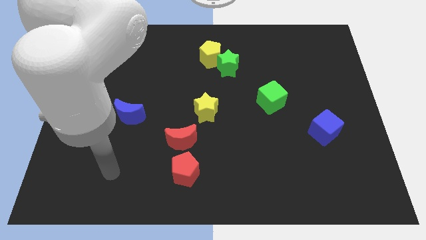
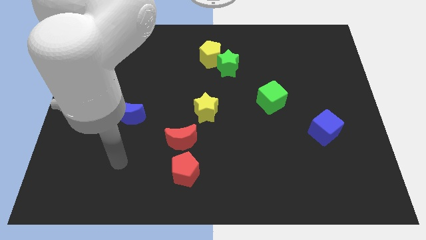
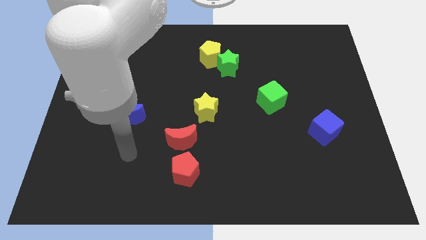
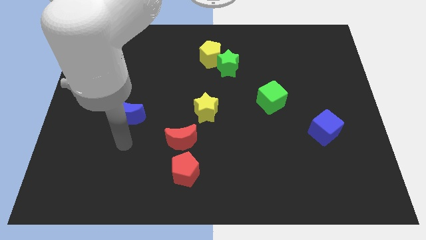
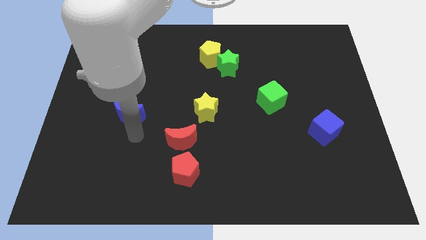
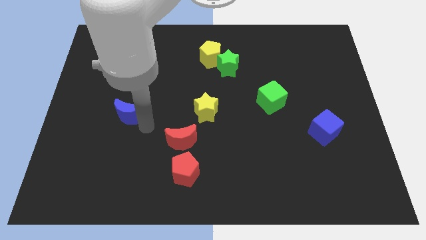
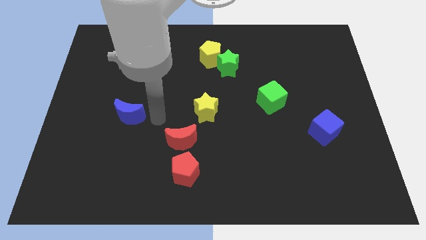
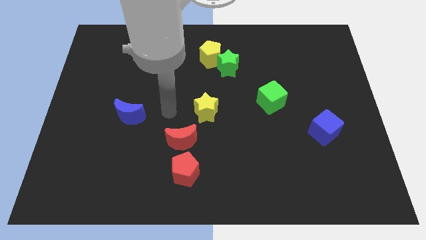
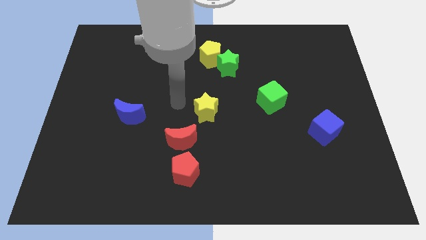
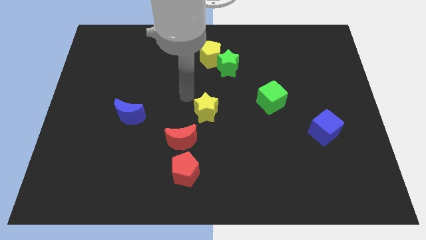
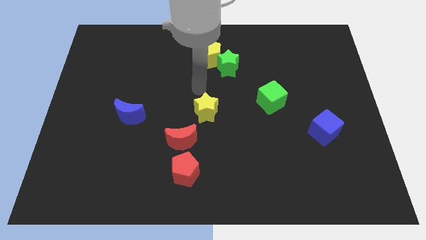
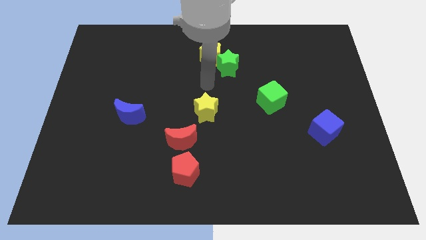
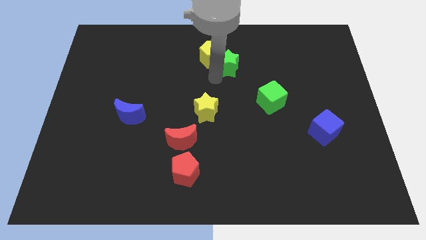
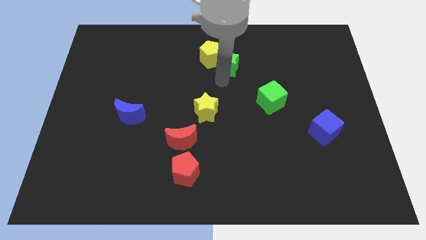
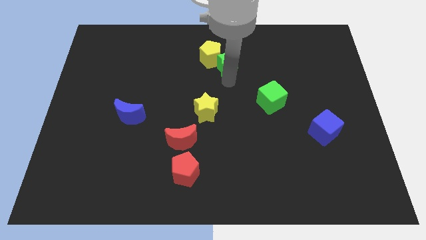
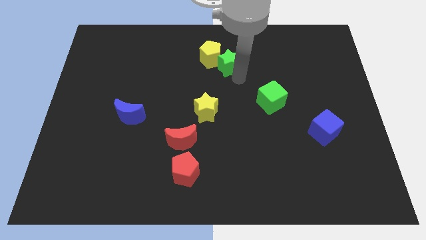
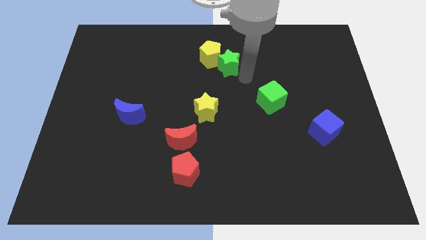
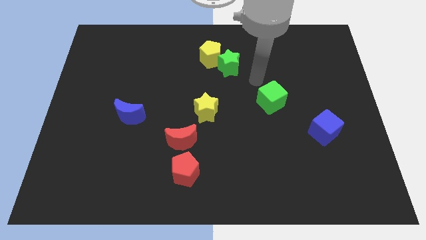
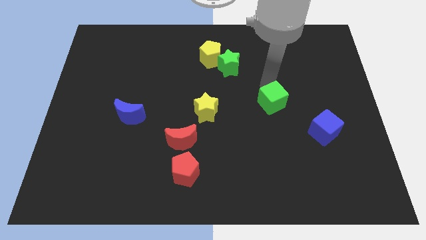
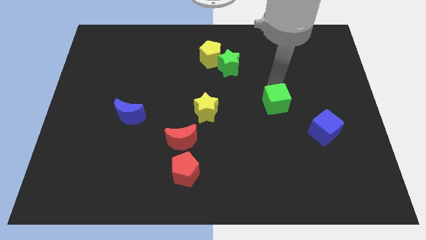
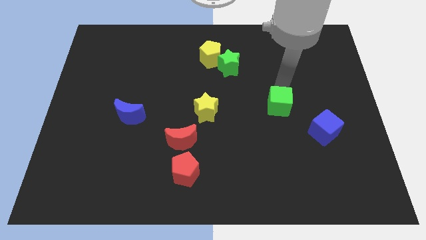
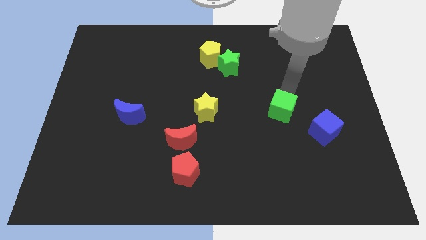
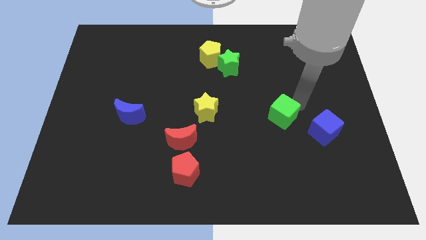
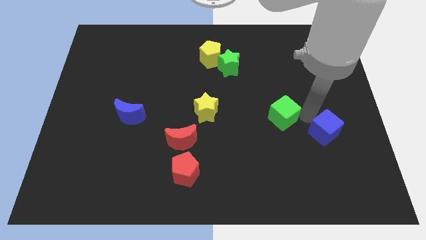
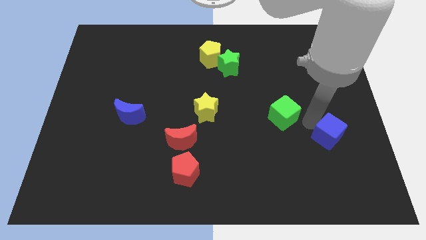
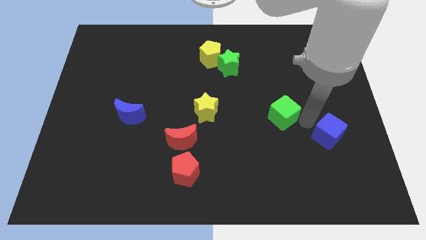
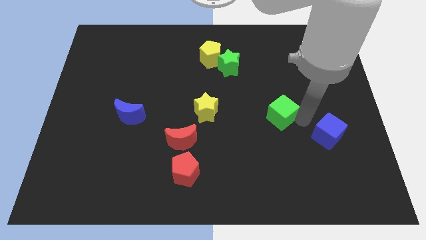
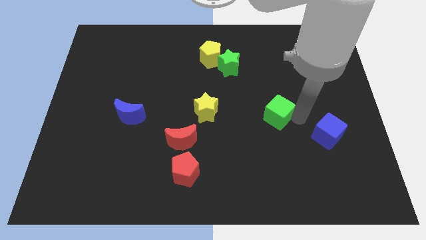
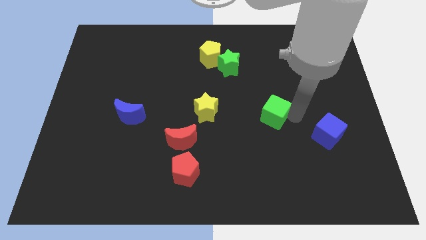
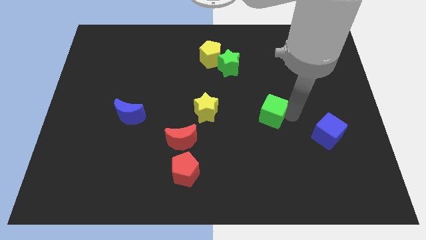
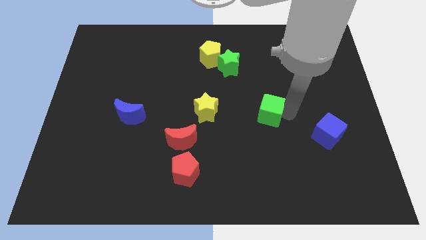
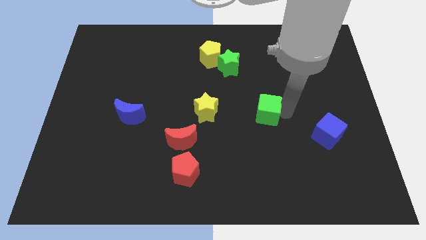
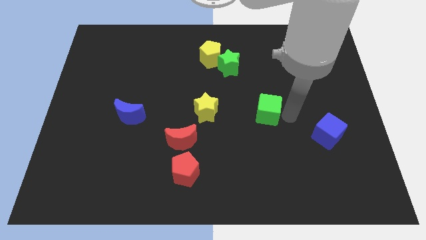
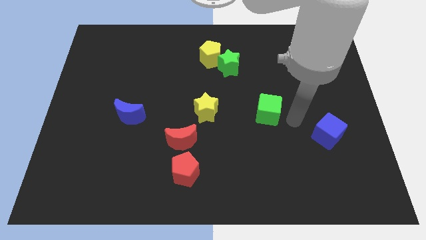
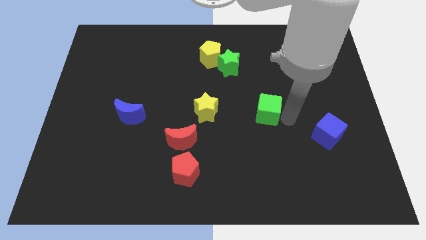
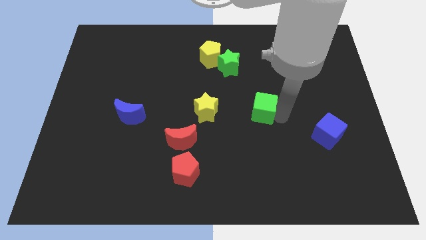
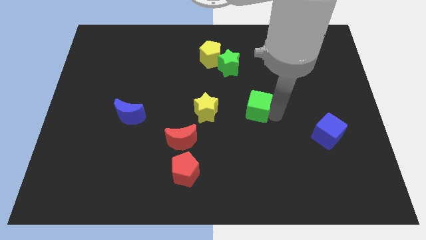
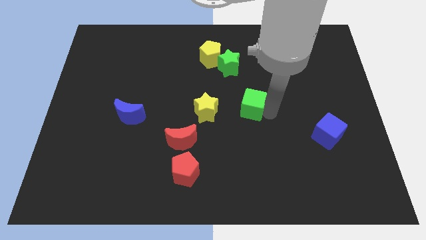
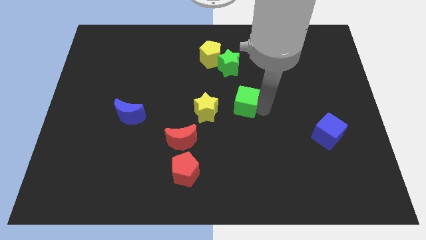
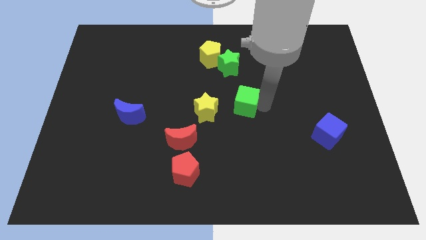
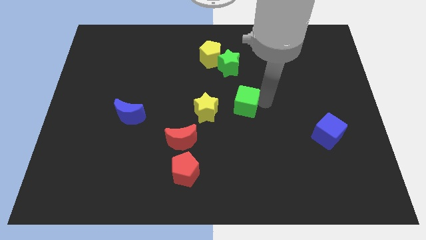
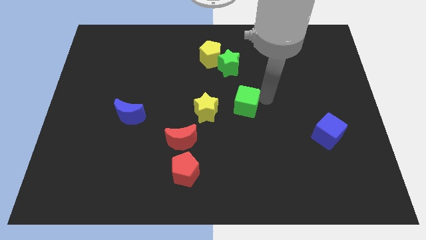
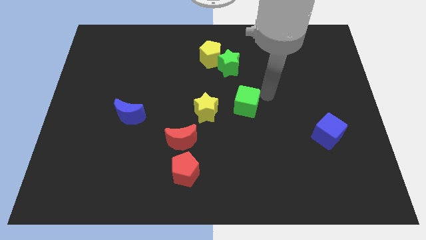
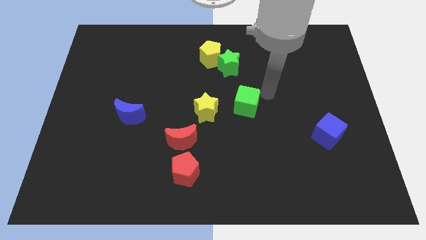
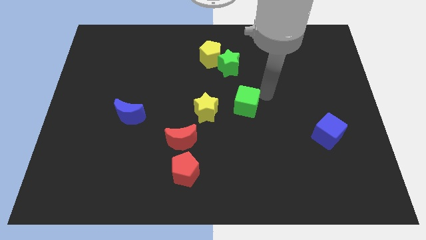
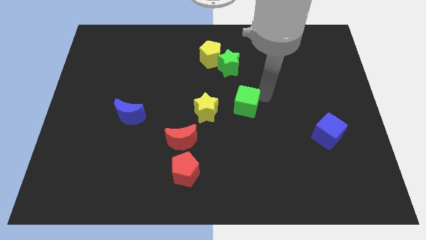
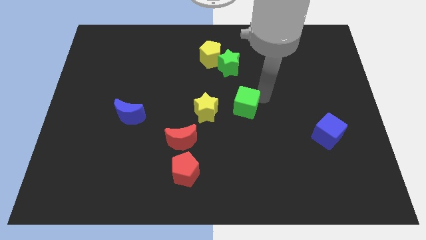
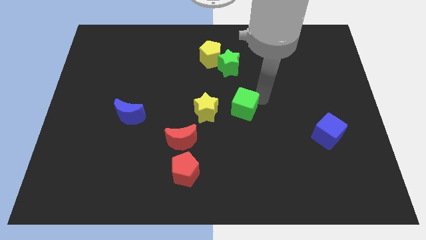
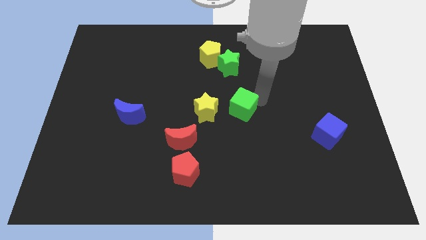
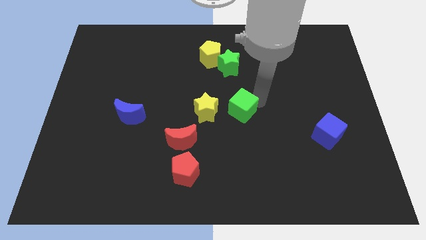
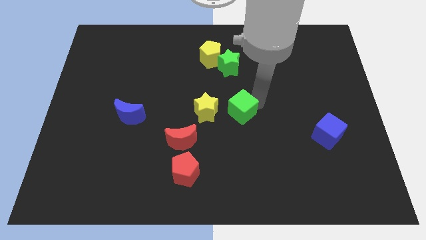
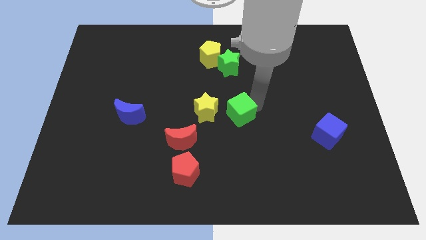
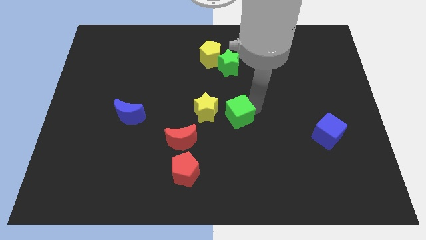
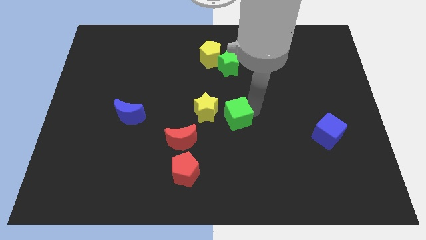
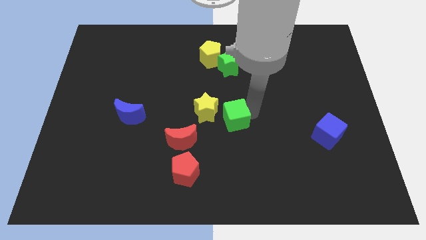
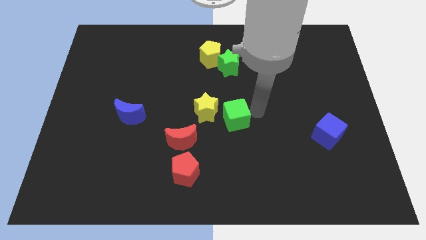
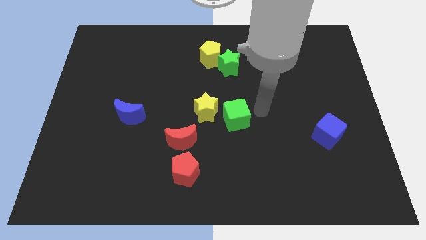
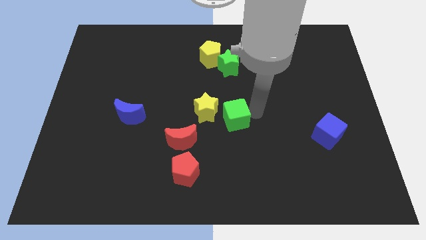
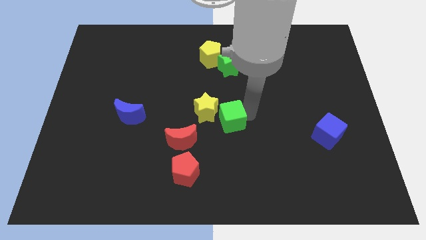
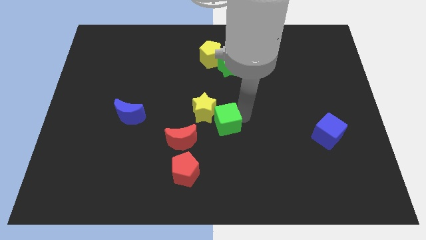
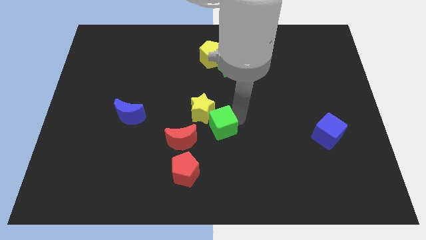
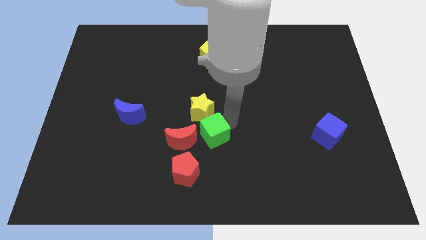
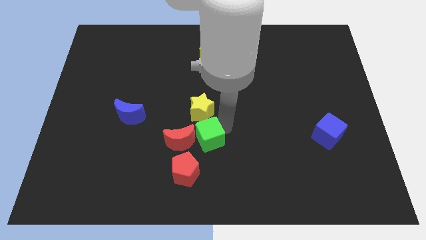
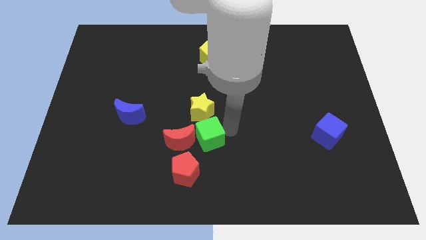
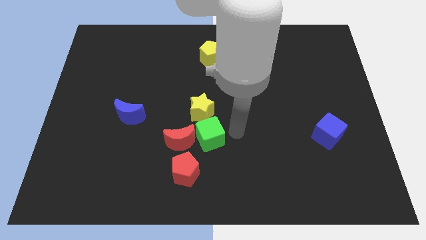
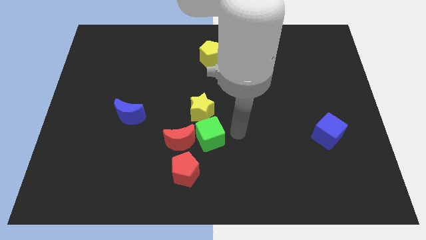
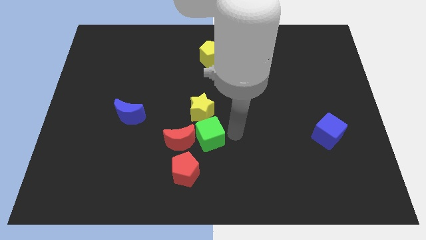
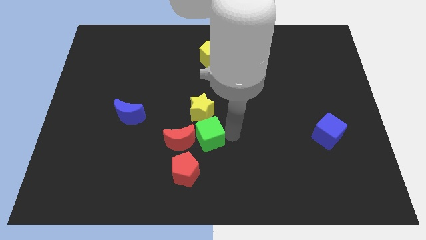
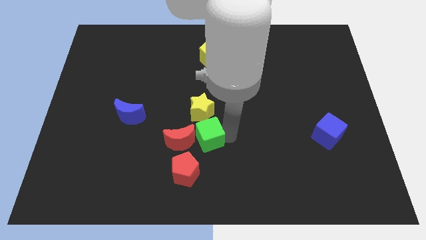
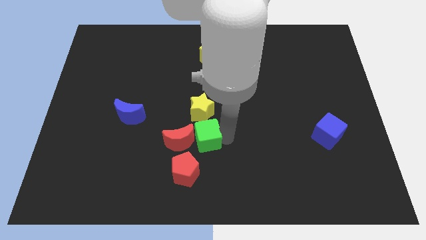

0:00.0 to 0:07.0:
slide the green cube to the red moon

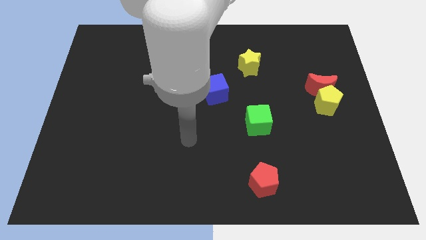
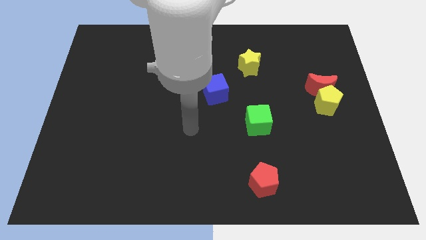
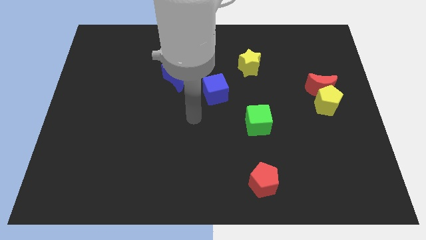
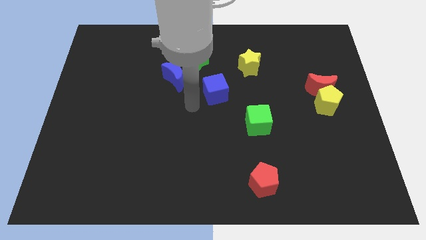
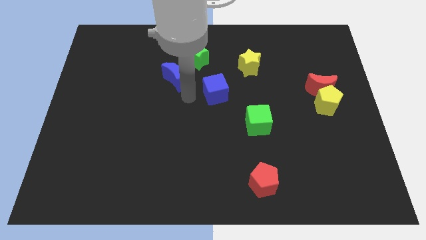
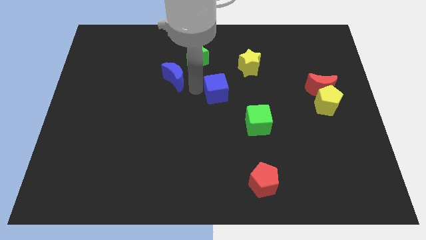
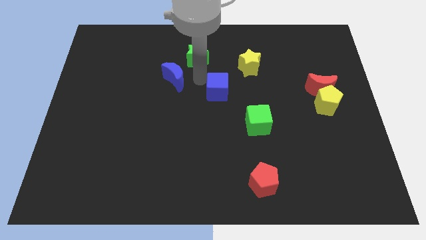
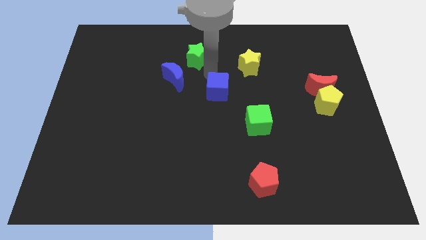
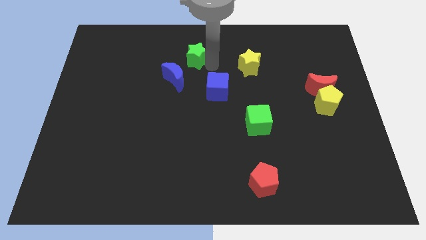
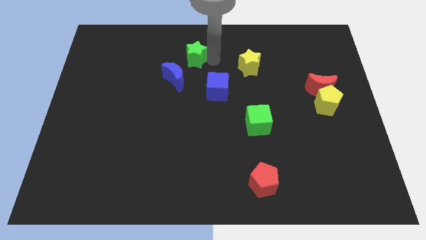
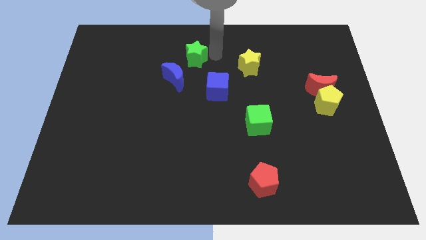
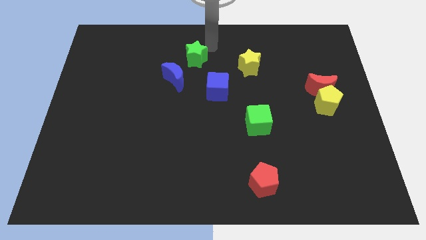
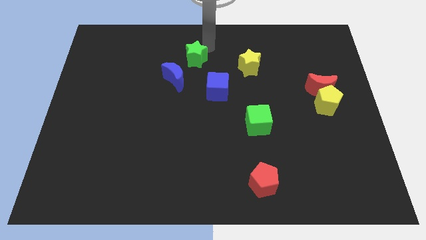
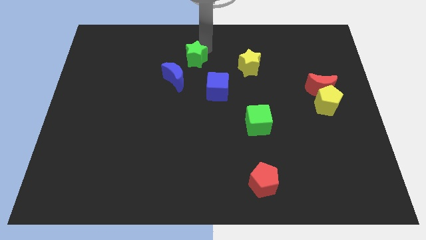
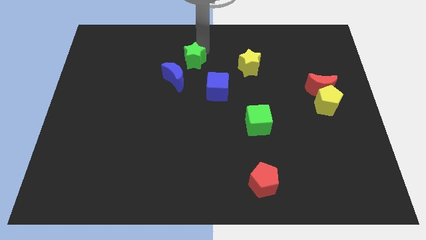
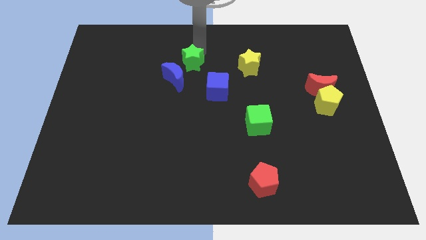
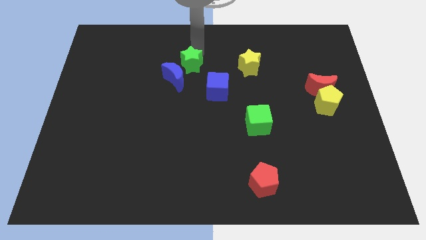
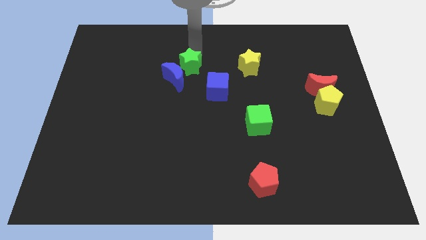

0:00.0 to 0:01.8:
push the green star to the blue moon
